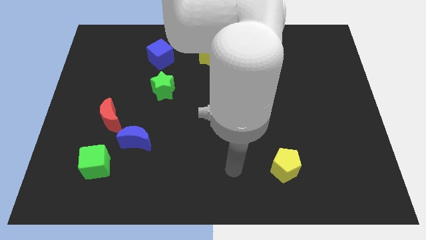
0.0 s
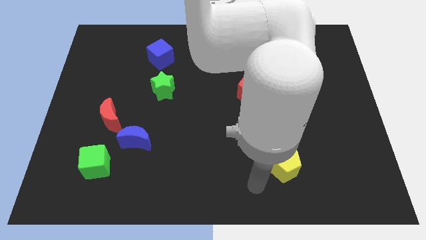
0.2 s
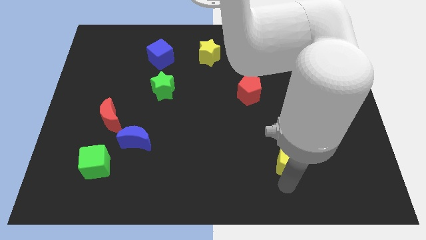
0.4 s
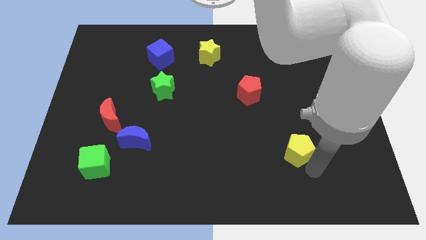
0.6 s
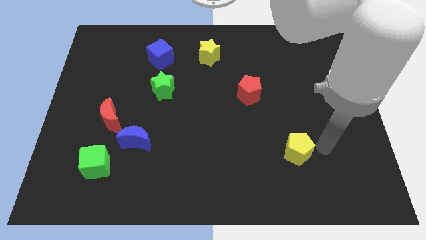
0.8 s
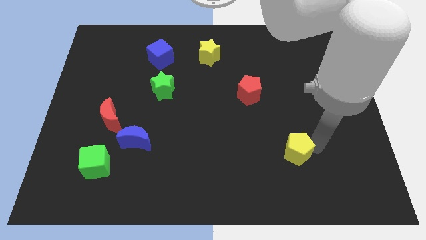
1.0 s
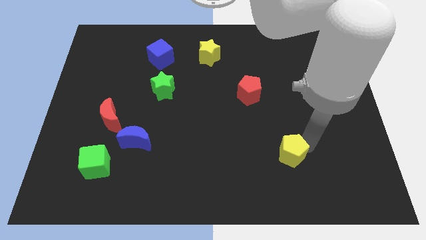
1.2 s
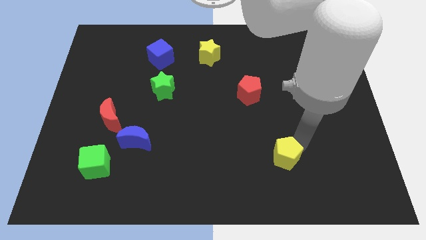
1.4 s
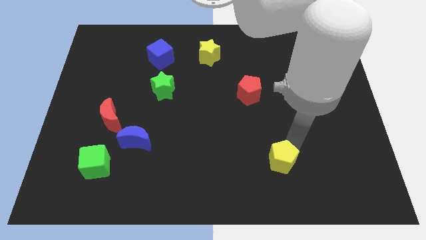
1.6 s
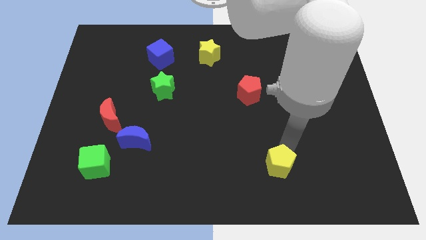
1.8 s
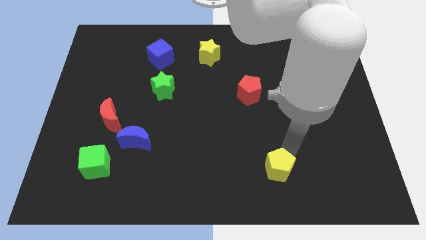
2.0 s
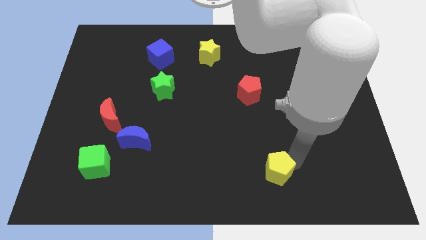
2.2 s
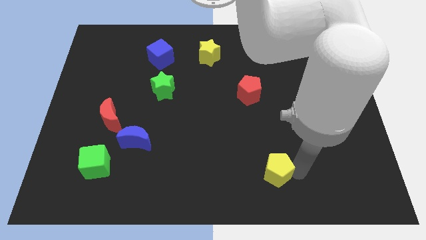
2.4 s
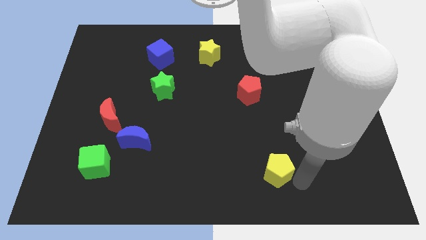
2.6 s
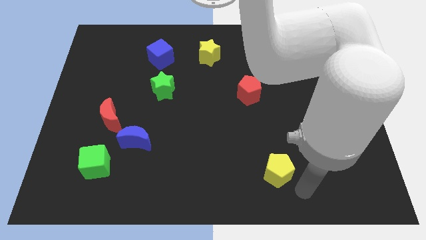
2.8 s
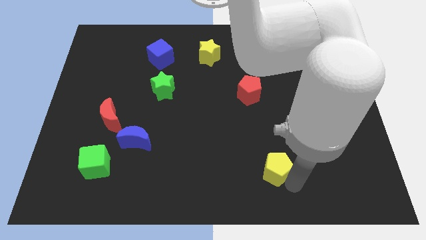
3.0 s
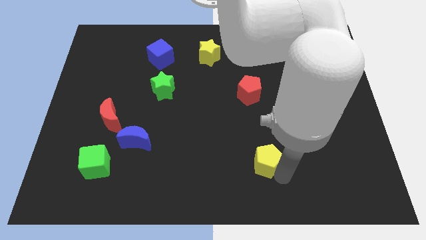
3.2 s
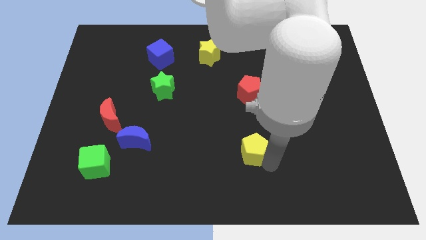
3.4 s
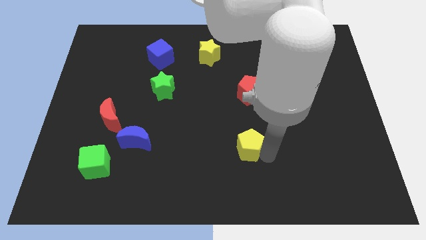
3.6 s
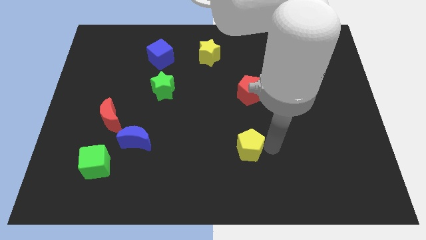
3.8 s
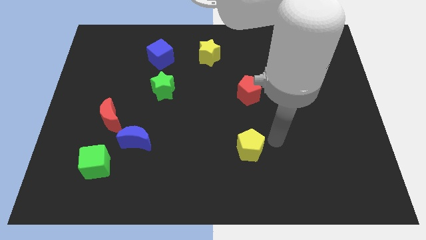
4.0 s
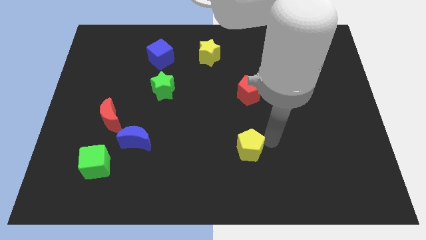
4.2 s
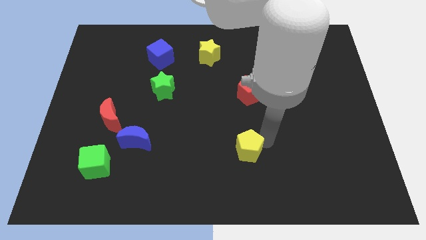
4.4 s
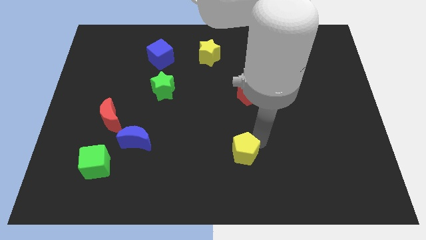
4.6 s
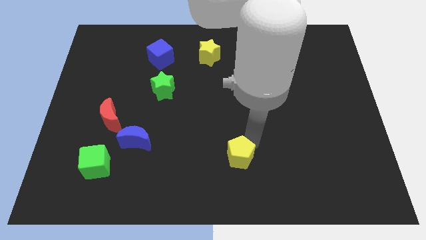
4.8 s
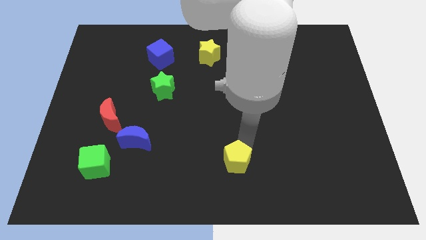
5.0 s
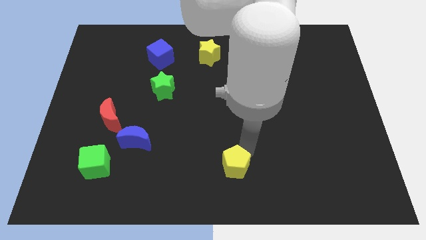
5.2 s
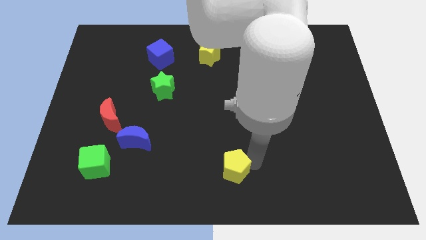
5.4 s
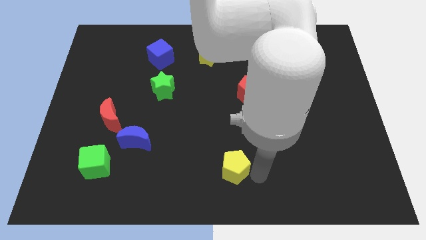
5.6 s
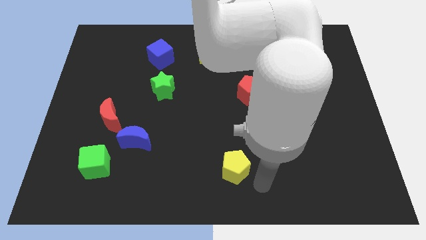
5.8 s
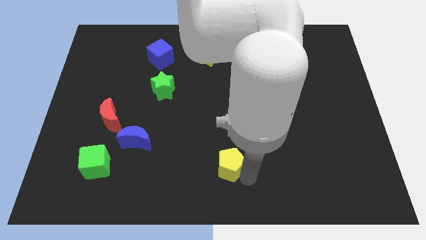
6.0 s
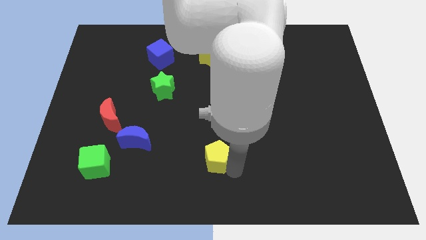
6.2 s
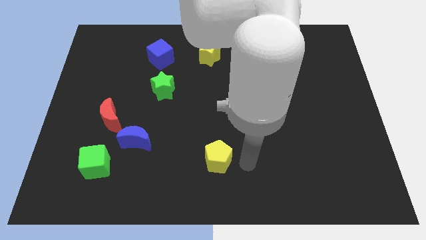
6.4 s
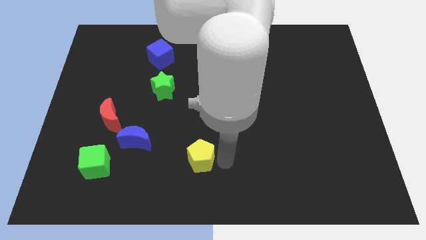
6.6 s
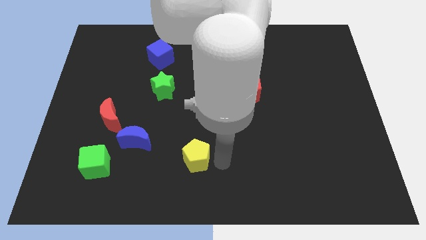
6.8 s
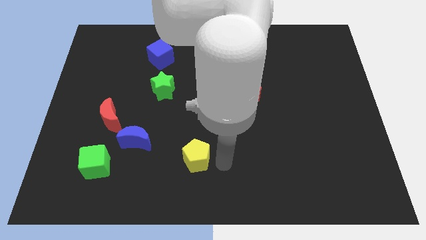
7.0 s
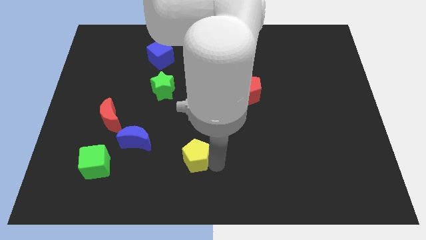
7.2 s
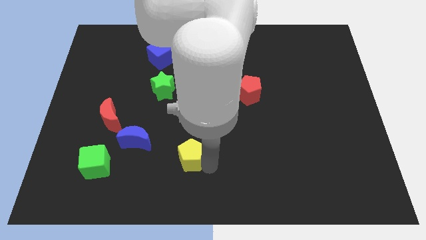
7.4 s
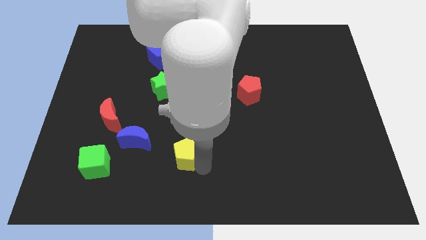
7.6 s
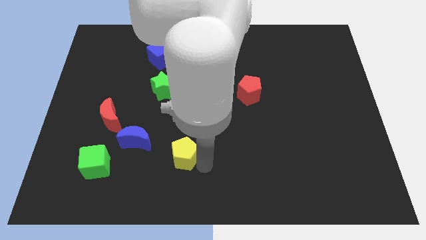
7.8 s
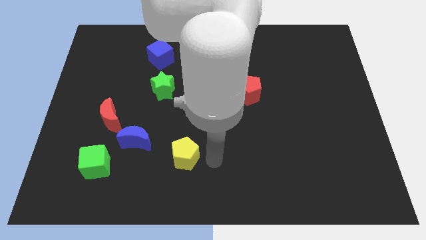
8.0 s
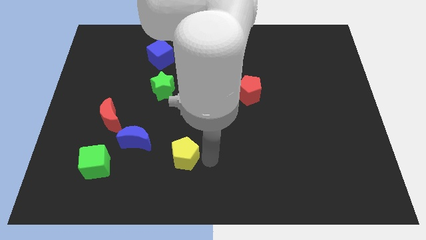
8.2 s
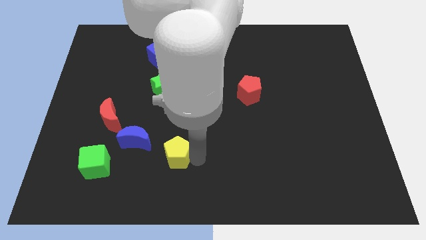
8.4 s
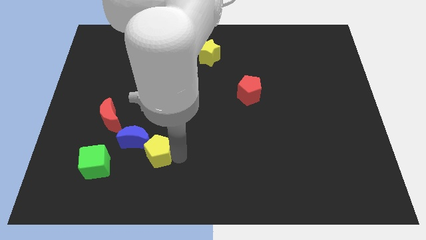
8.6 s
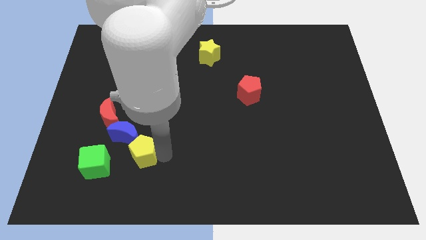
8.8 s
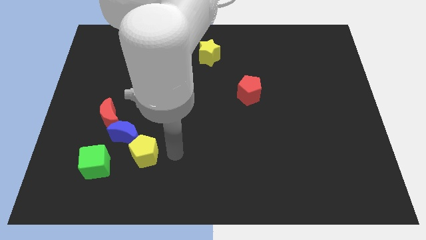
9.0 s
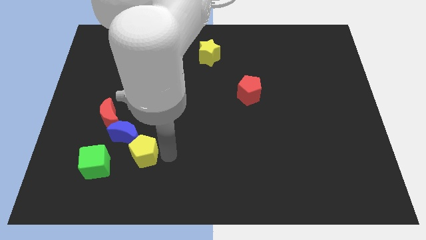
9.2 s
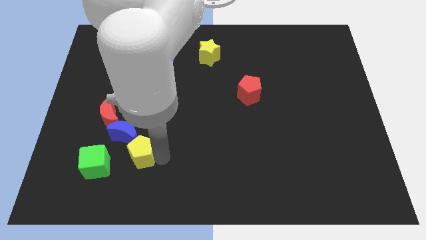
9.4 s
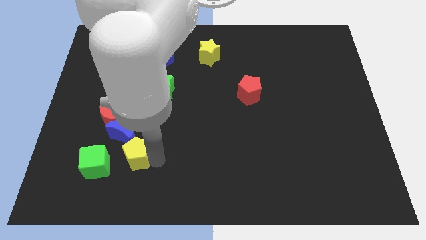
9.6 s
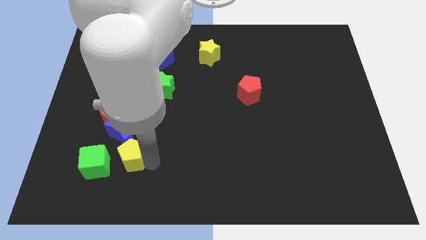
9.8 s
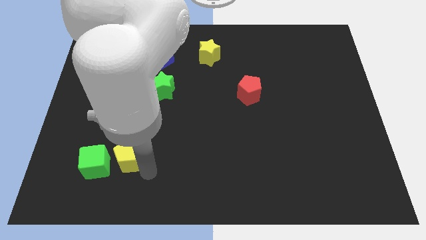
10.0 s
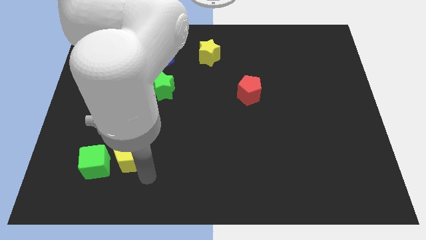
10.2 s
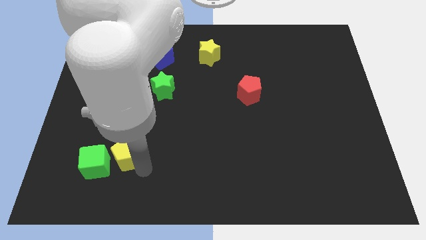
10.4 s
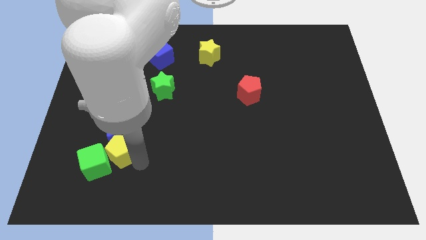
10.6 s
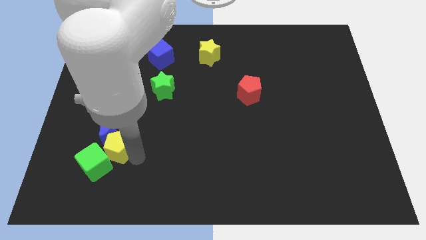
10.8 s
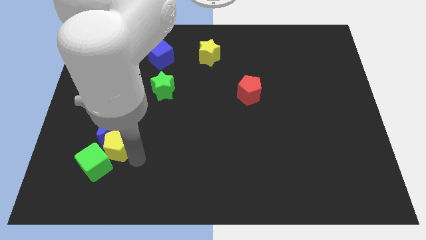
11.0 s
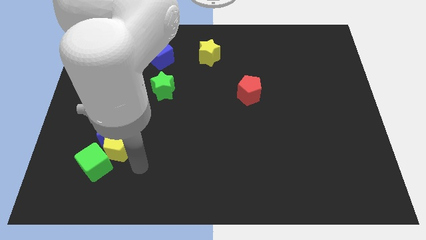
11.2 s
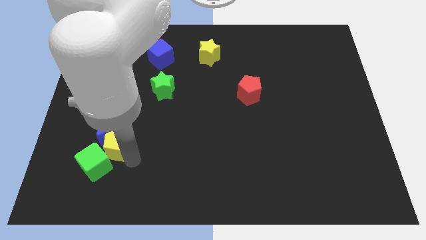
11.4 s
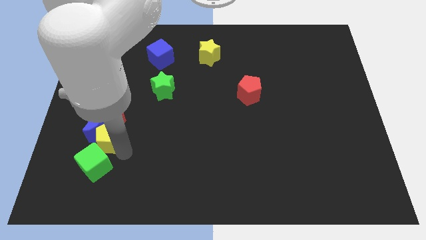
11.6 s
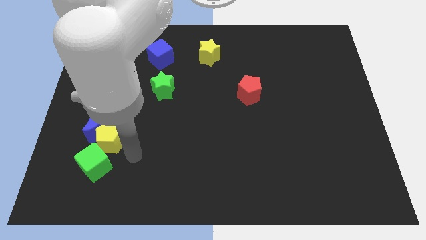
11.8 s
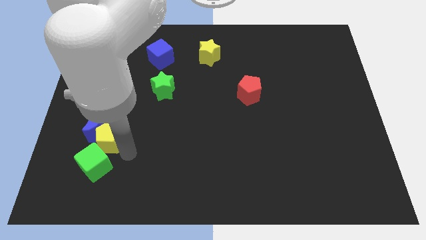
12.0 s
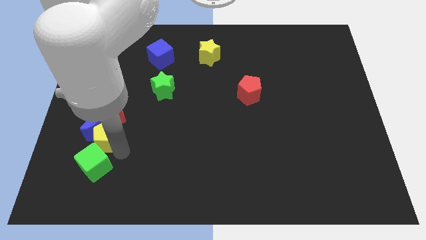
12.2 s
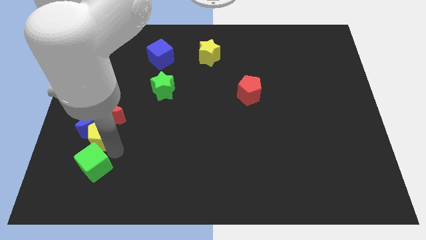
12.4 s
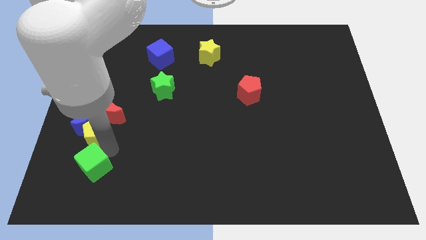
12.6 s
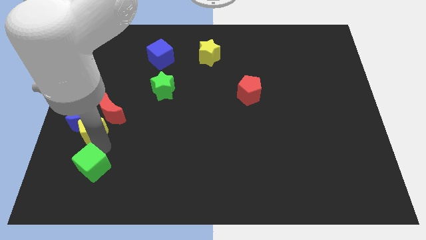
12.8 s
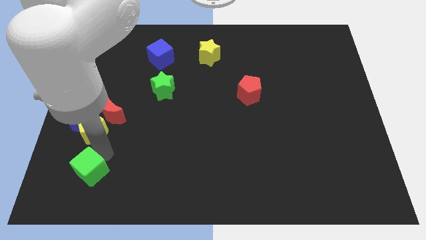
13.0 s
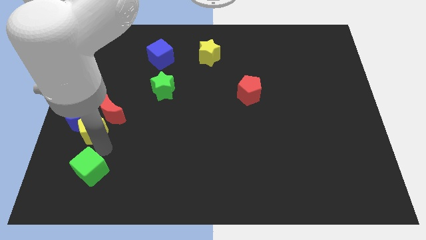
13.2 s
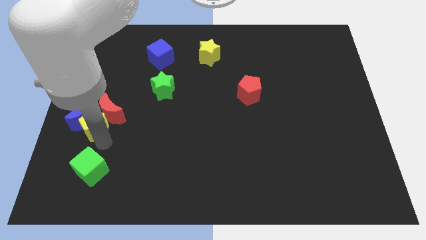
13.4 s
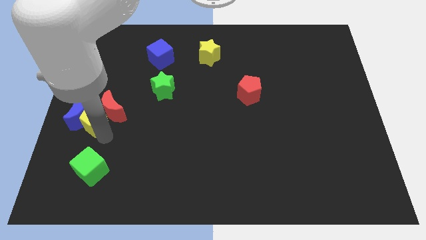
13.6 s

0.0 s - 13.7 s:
slide the yellow pentagon to the center left
